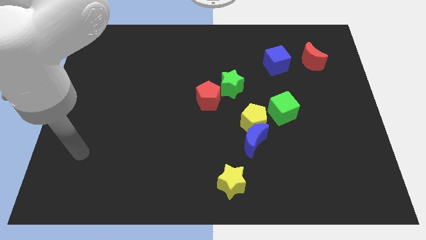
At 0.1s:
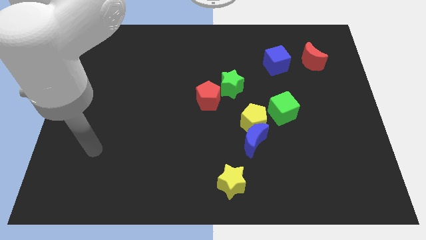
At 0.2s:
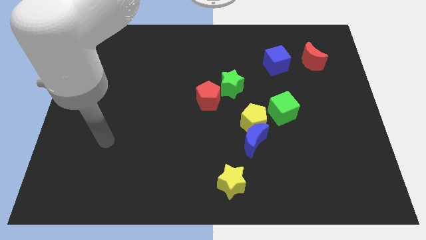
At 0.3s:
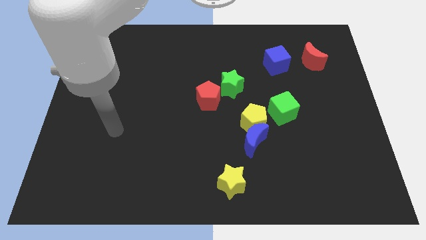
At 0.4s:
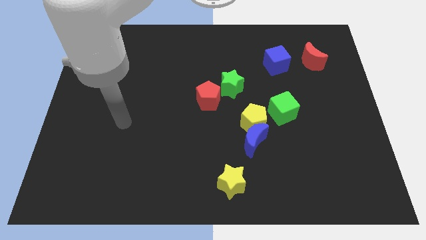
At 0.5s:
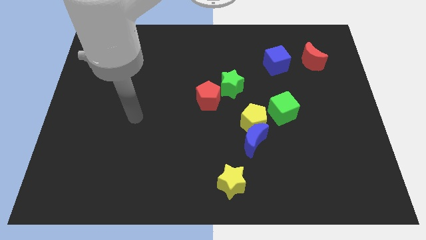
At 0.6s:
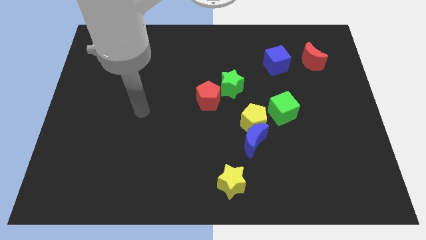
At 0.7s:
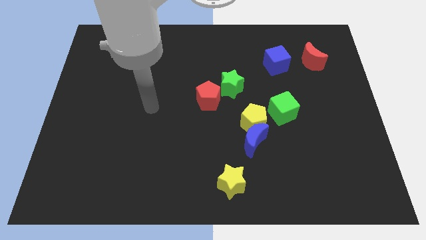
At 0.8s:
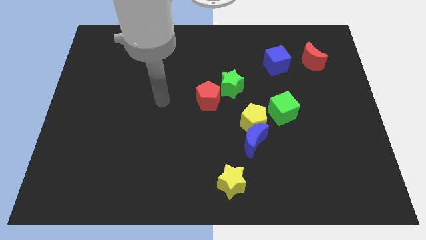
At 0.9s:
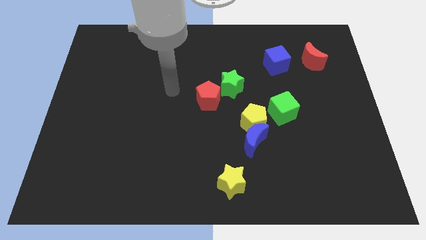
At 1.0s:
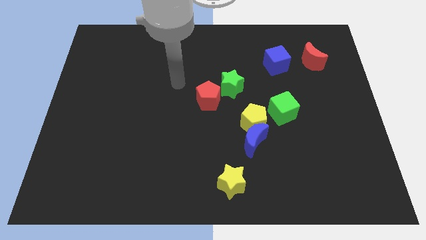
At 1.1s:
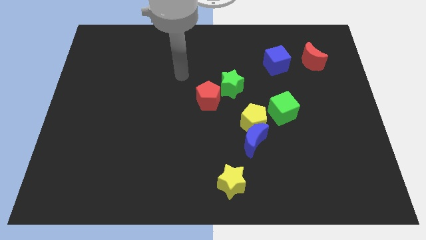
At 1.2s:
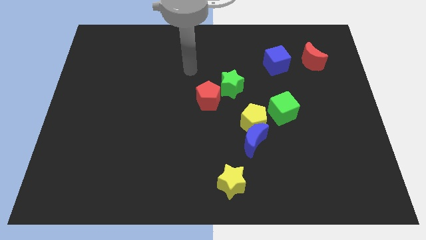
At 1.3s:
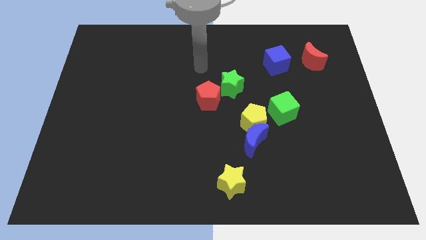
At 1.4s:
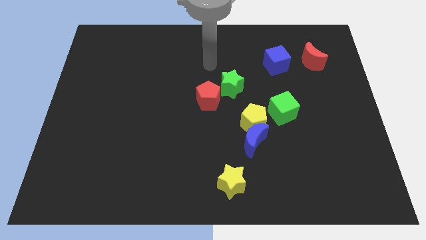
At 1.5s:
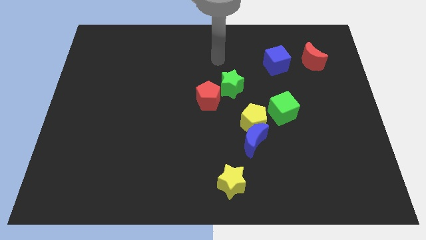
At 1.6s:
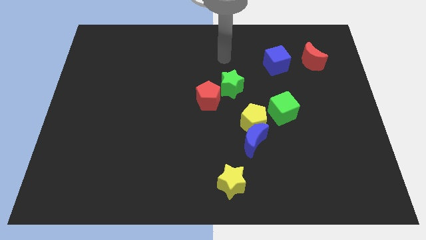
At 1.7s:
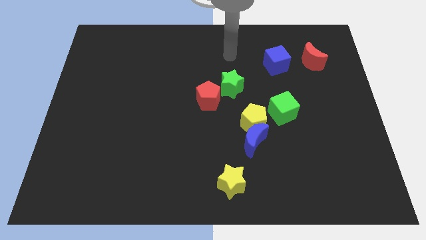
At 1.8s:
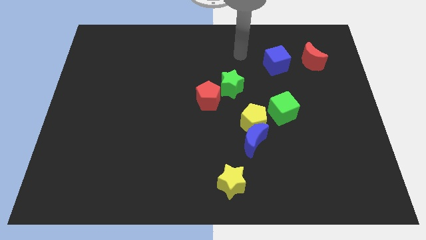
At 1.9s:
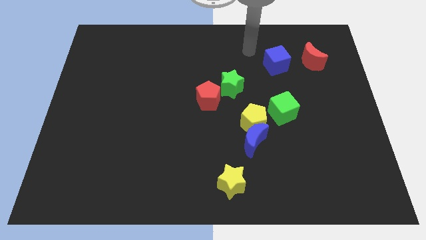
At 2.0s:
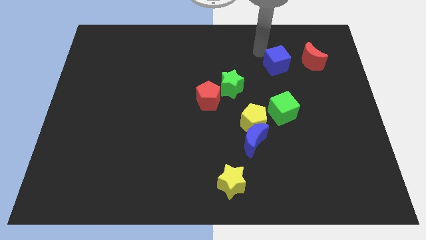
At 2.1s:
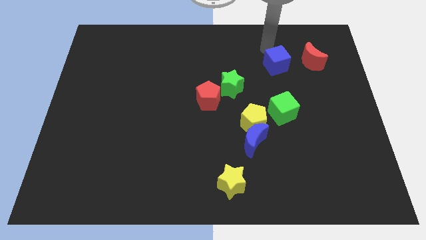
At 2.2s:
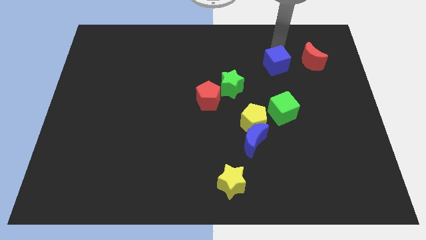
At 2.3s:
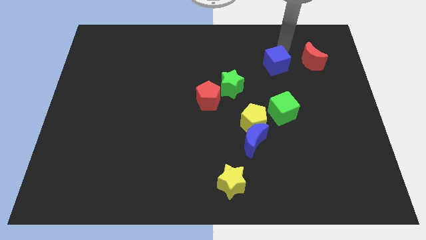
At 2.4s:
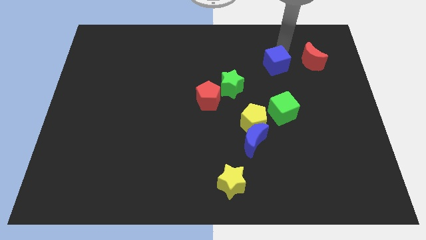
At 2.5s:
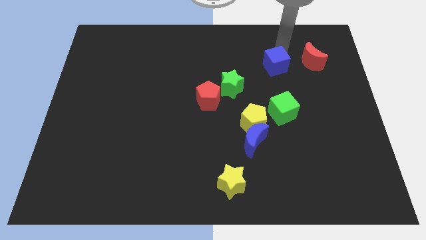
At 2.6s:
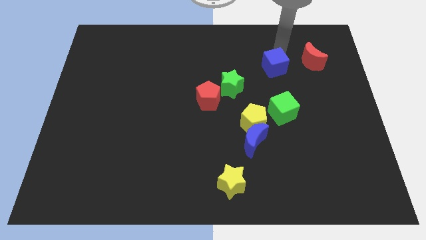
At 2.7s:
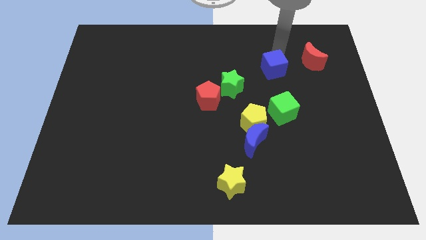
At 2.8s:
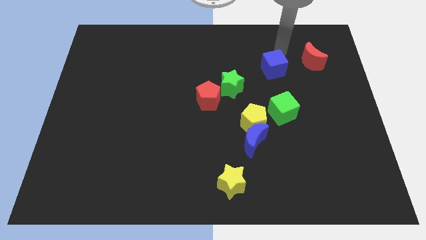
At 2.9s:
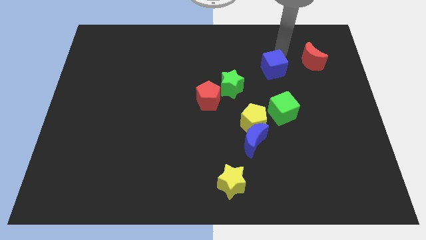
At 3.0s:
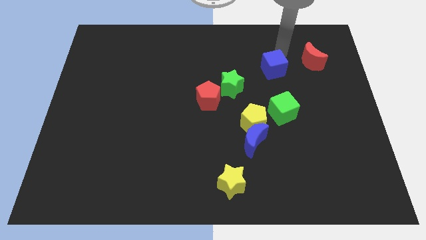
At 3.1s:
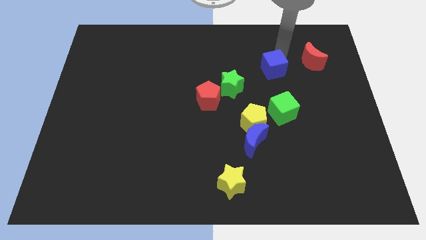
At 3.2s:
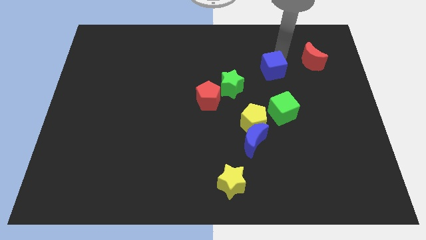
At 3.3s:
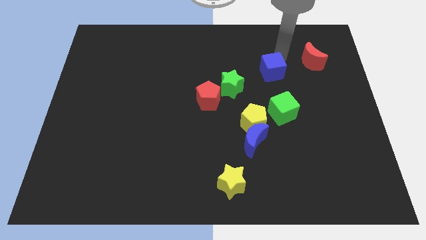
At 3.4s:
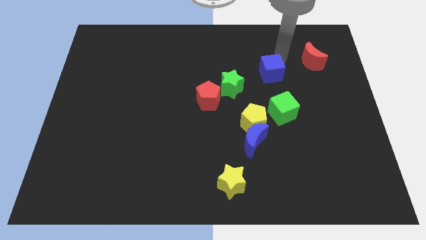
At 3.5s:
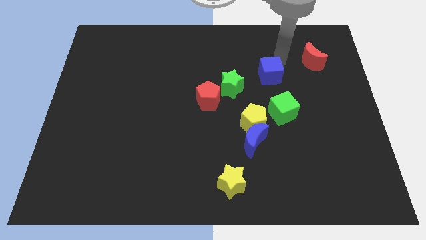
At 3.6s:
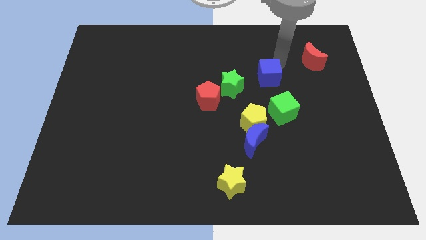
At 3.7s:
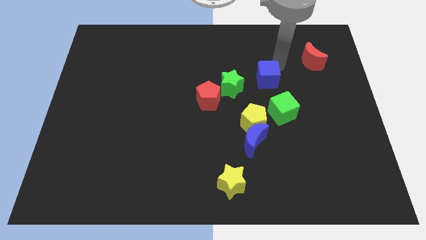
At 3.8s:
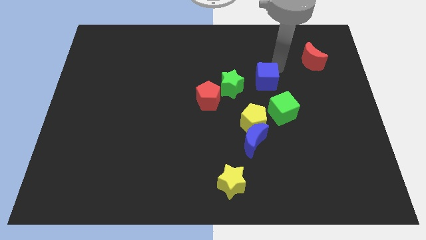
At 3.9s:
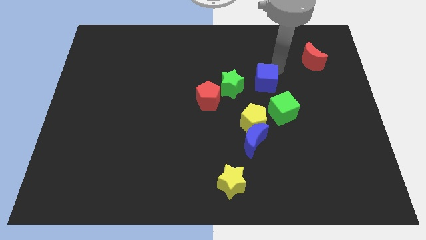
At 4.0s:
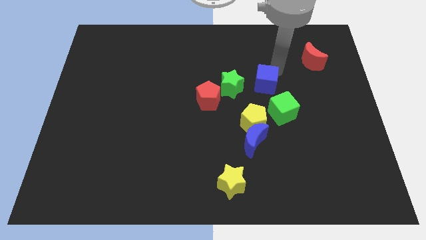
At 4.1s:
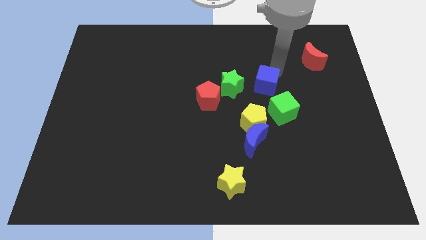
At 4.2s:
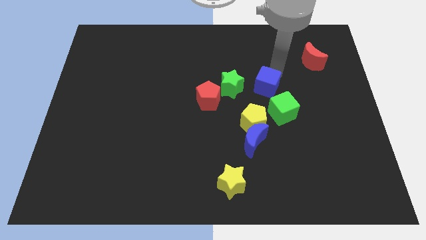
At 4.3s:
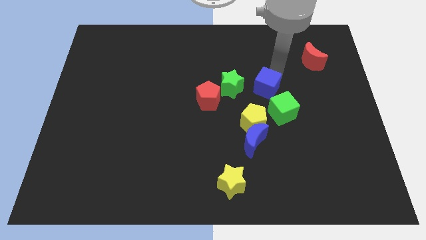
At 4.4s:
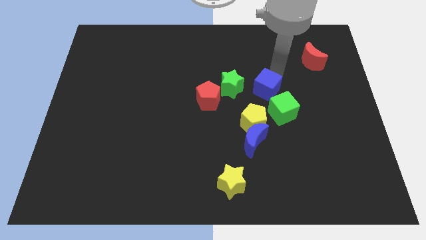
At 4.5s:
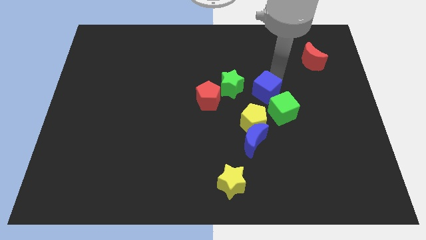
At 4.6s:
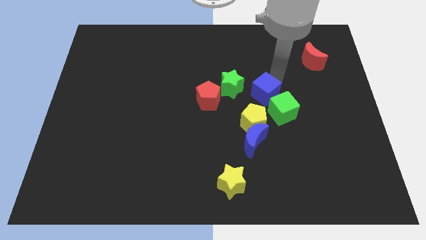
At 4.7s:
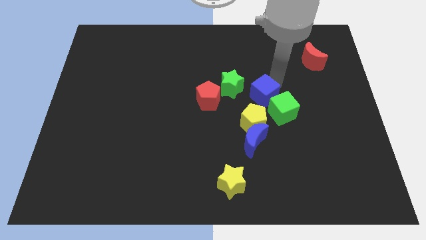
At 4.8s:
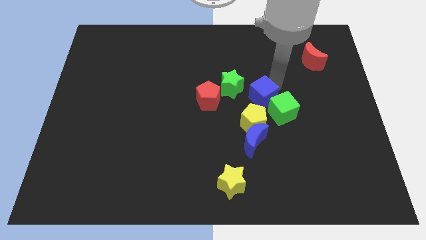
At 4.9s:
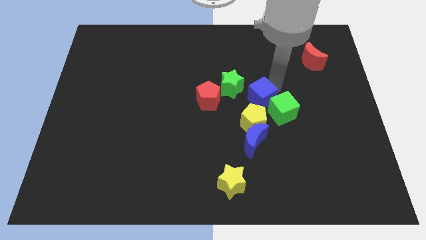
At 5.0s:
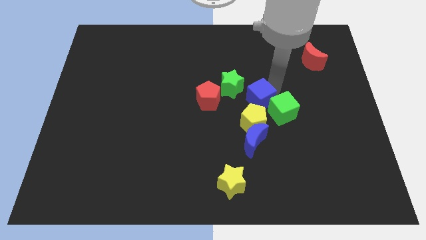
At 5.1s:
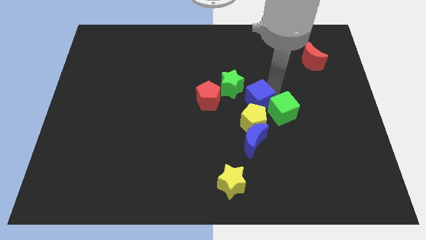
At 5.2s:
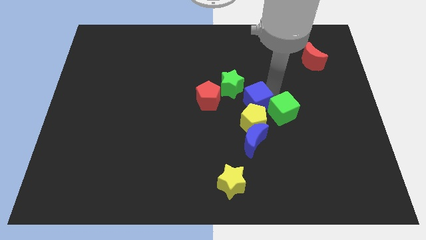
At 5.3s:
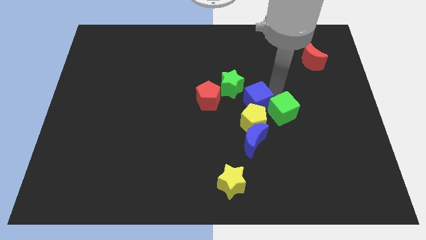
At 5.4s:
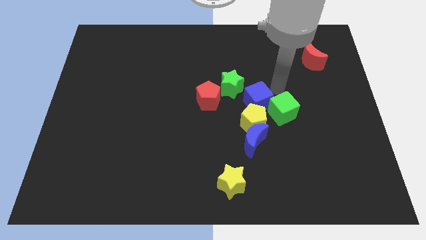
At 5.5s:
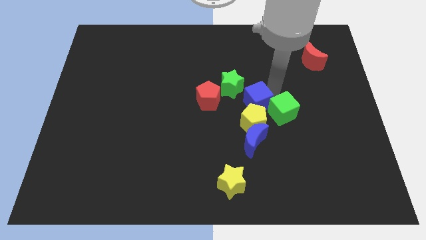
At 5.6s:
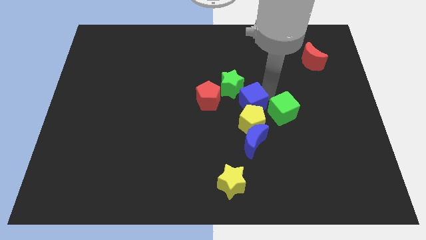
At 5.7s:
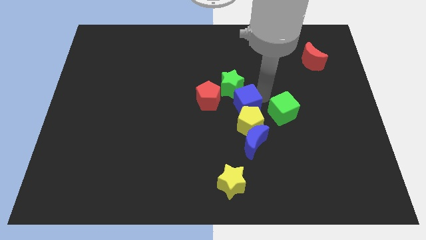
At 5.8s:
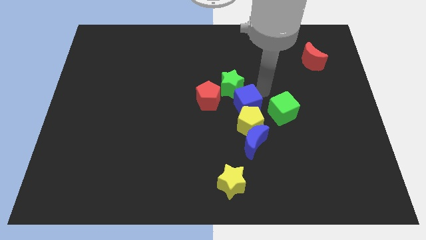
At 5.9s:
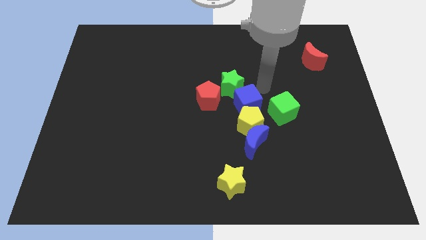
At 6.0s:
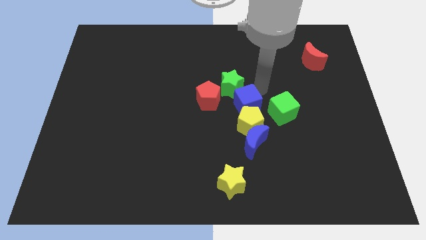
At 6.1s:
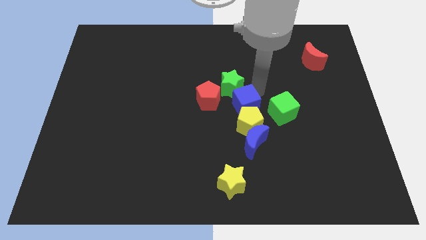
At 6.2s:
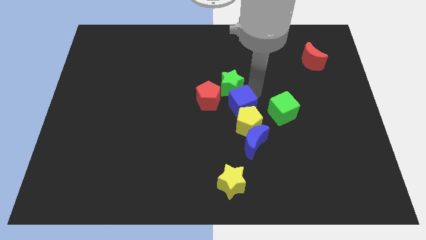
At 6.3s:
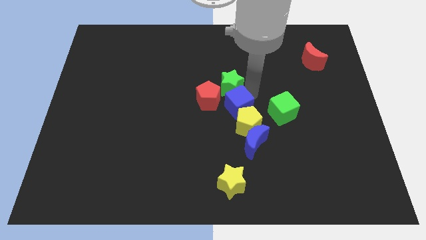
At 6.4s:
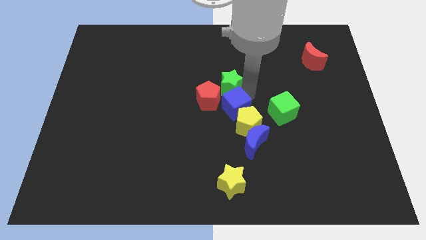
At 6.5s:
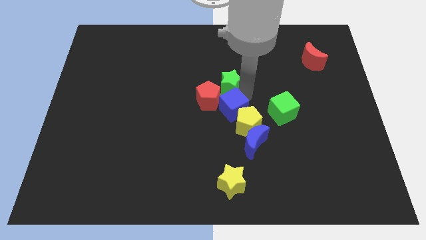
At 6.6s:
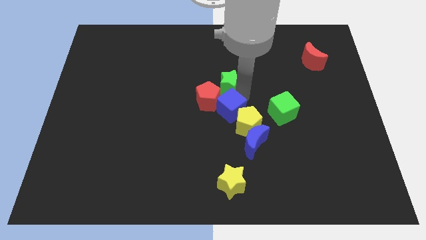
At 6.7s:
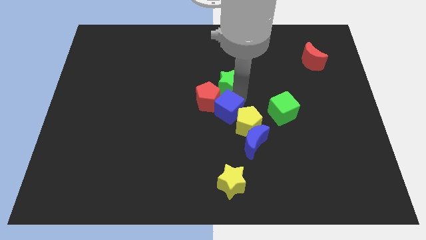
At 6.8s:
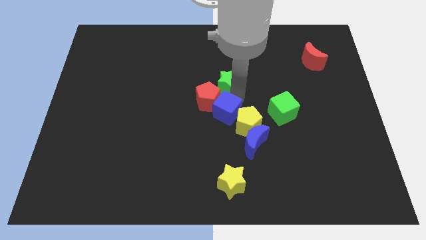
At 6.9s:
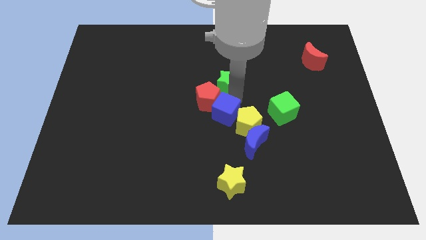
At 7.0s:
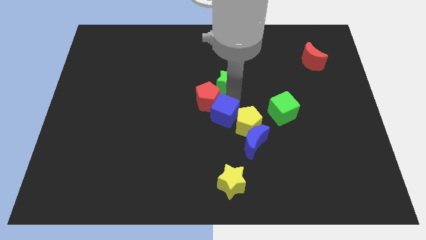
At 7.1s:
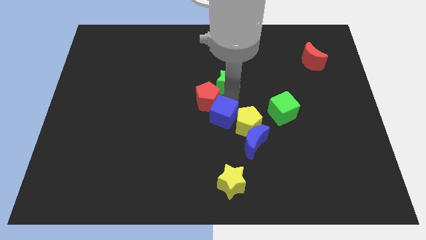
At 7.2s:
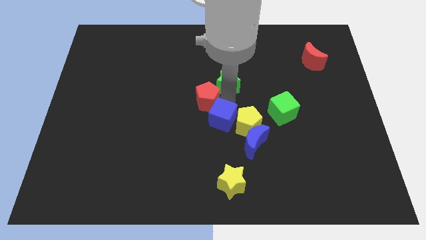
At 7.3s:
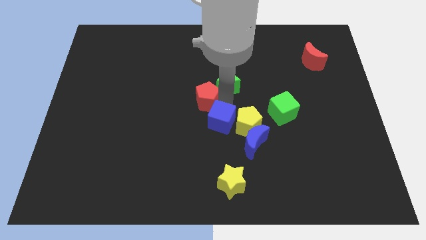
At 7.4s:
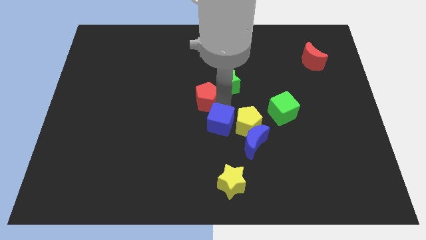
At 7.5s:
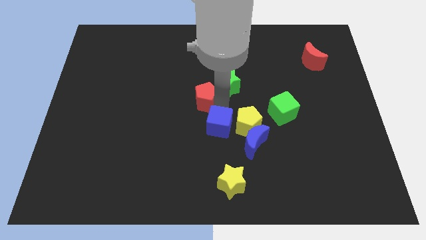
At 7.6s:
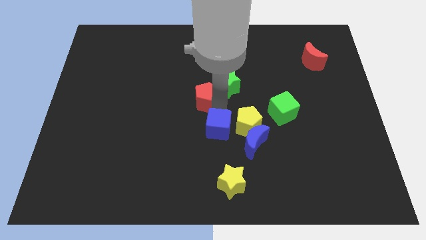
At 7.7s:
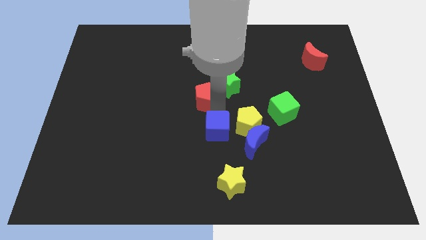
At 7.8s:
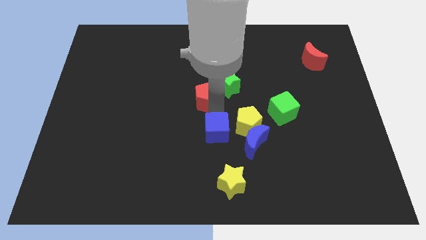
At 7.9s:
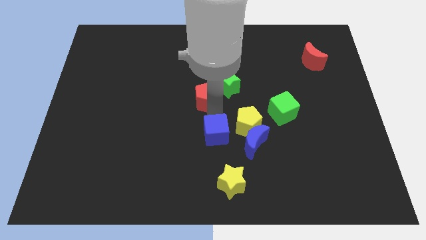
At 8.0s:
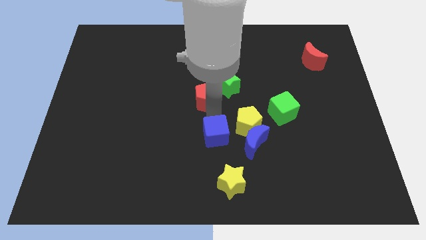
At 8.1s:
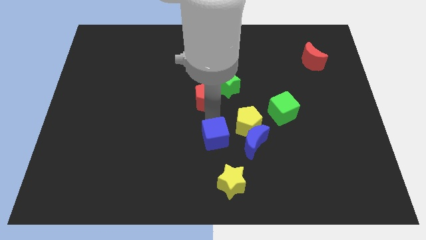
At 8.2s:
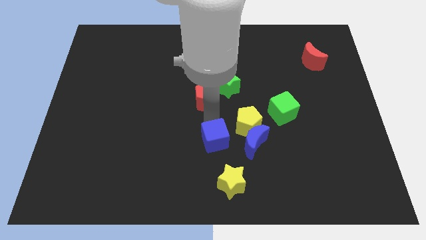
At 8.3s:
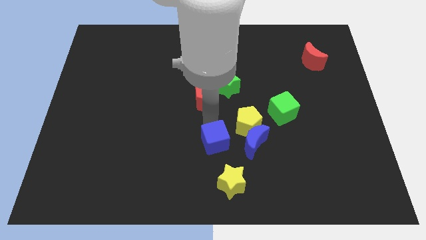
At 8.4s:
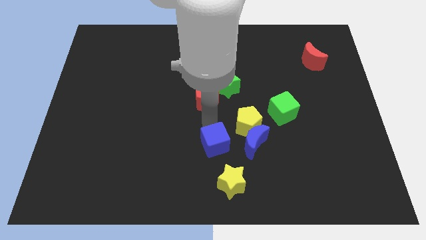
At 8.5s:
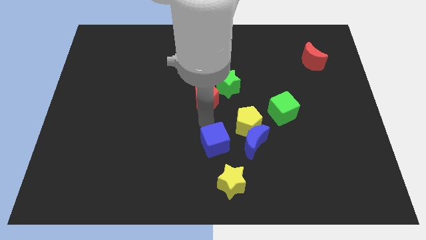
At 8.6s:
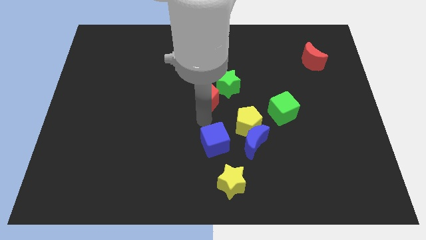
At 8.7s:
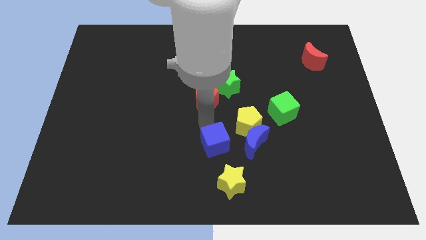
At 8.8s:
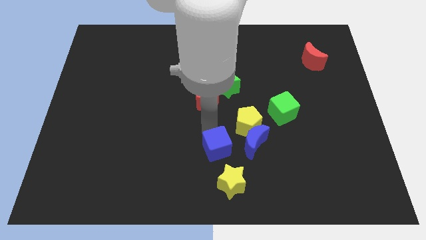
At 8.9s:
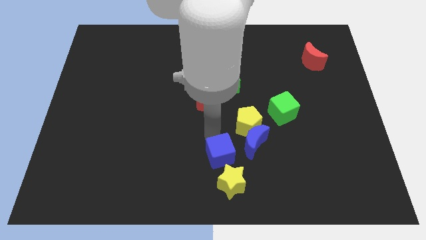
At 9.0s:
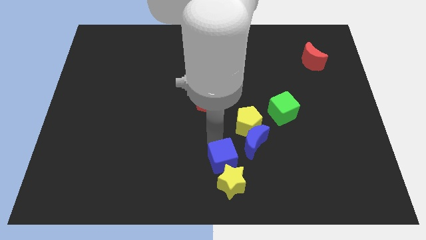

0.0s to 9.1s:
slide the blue cube close to the yellow star
